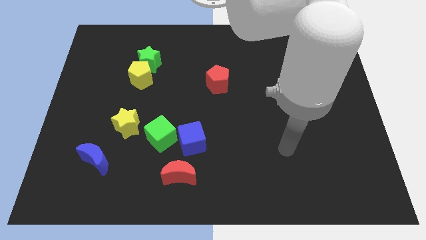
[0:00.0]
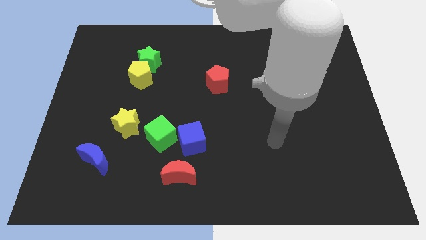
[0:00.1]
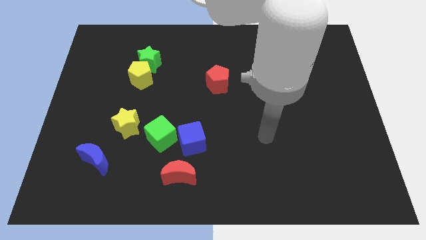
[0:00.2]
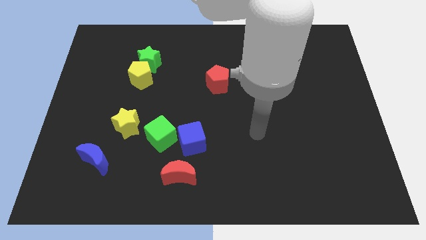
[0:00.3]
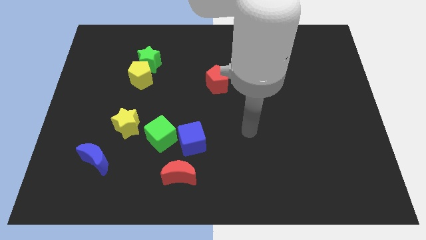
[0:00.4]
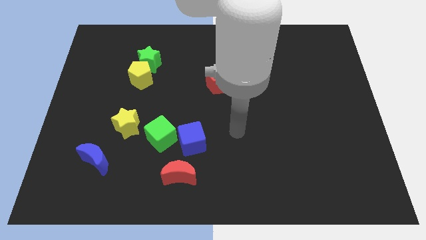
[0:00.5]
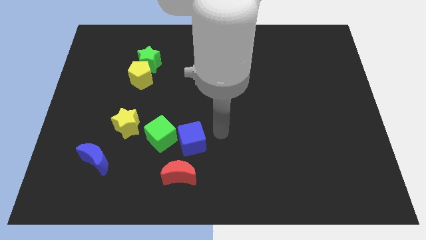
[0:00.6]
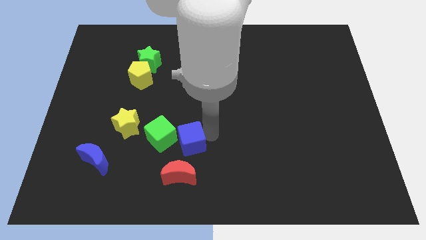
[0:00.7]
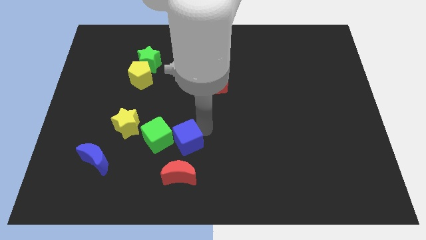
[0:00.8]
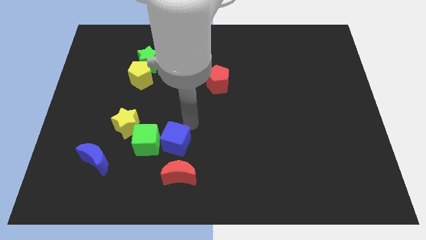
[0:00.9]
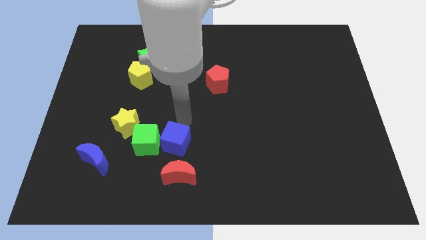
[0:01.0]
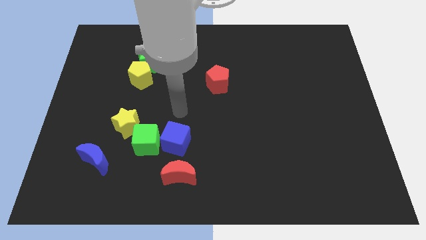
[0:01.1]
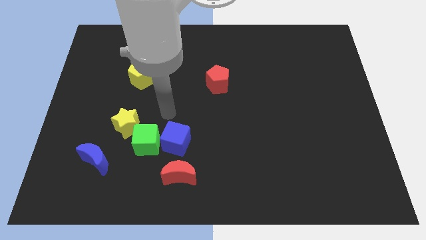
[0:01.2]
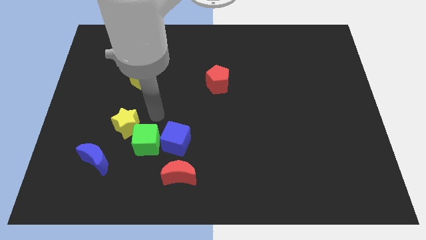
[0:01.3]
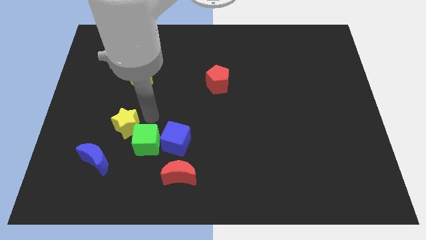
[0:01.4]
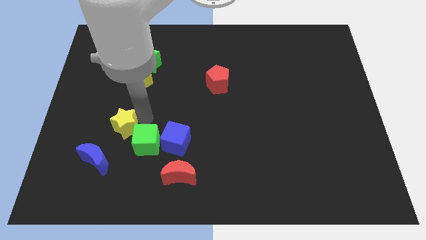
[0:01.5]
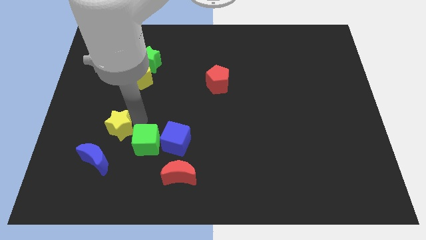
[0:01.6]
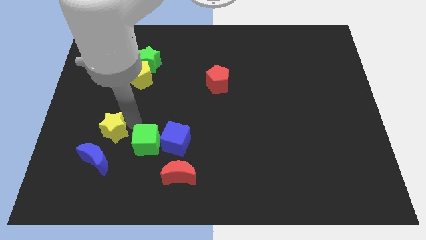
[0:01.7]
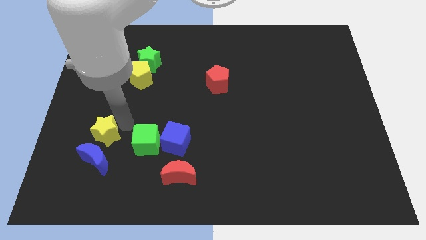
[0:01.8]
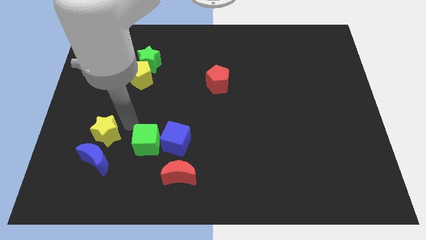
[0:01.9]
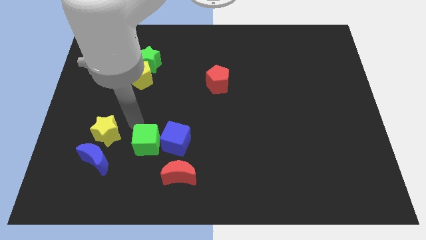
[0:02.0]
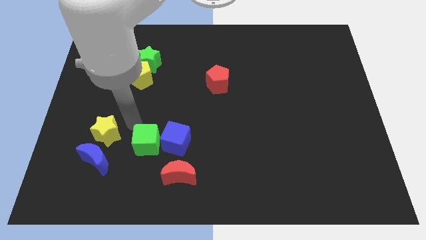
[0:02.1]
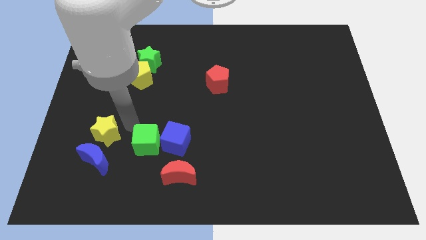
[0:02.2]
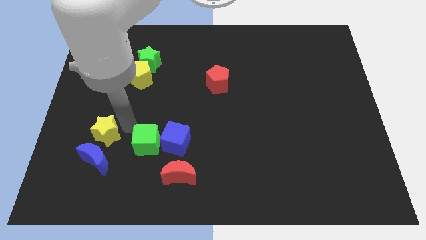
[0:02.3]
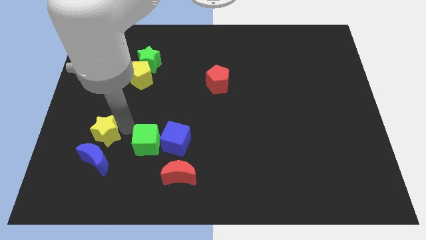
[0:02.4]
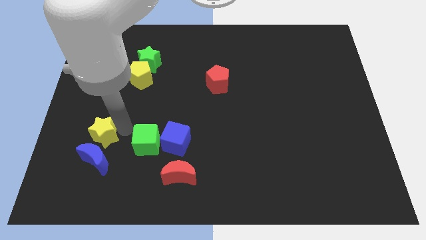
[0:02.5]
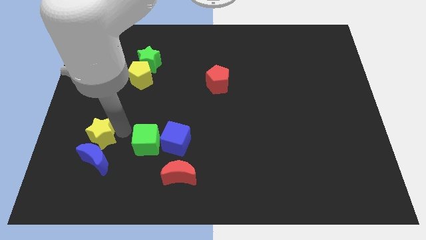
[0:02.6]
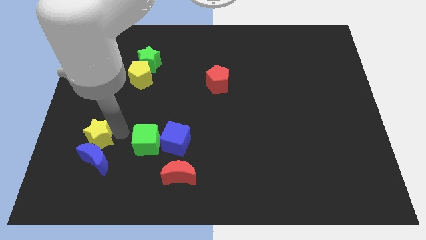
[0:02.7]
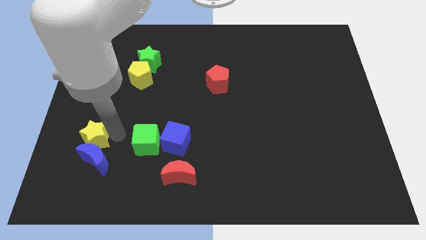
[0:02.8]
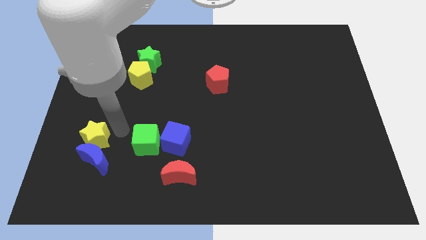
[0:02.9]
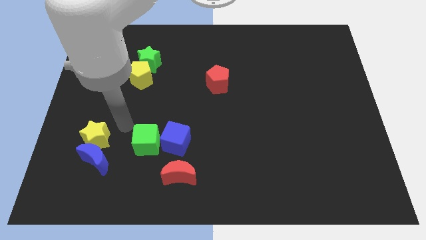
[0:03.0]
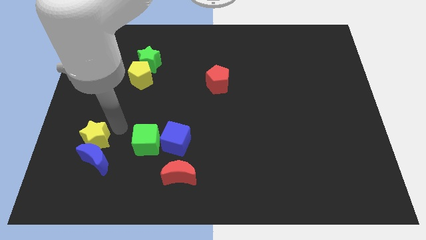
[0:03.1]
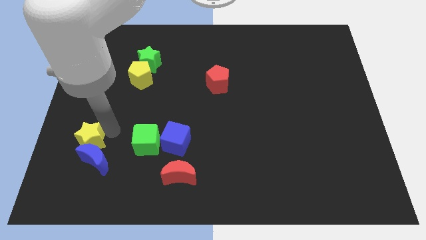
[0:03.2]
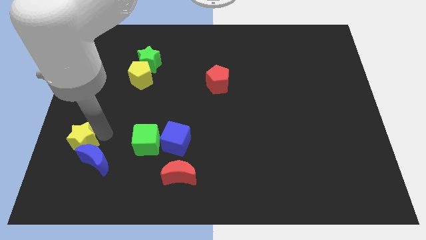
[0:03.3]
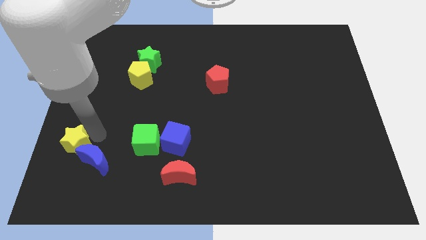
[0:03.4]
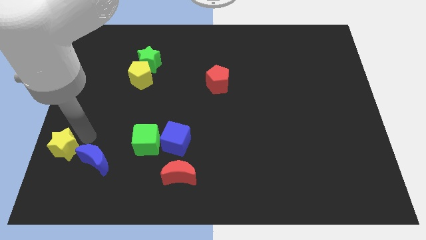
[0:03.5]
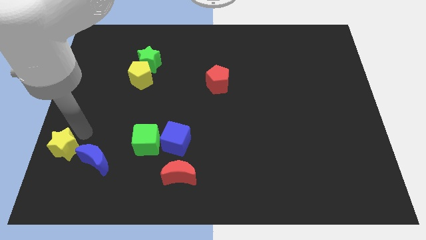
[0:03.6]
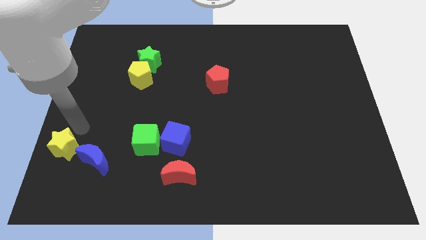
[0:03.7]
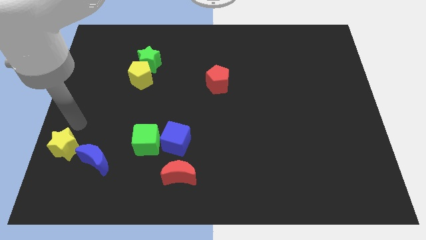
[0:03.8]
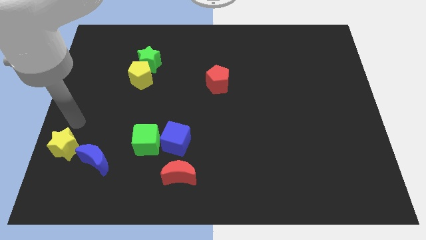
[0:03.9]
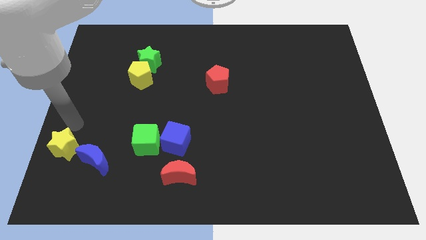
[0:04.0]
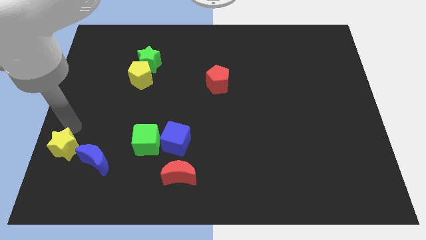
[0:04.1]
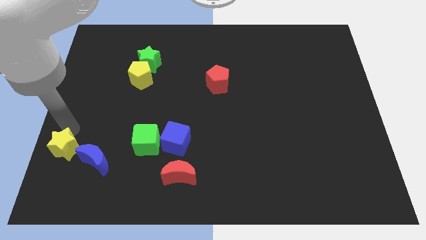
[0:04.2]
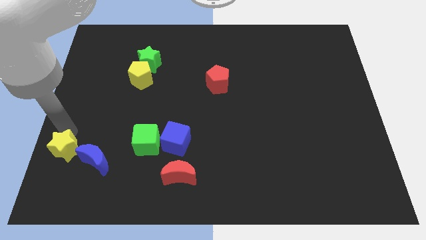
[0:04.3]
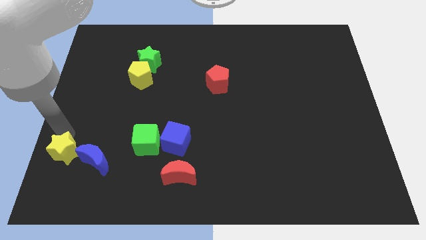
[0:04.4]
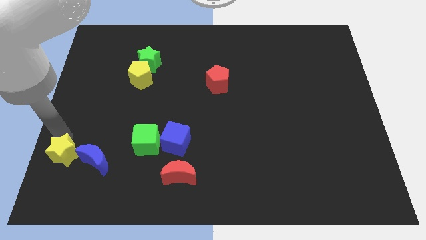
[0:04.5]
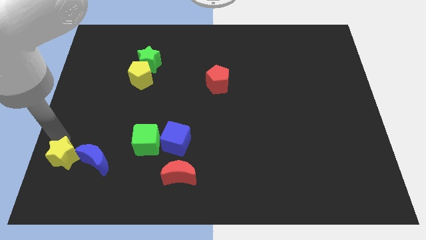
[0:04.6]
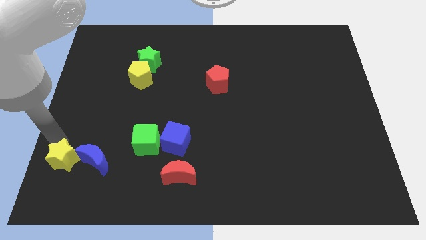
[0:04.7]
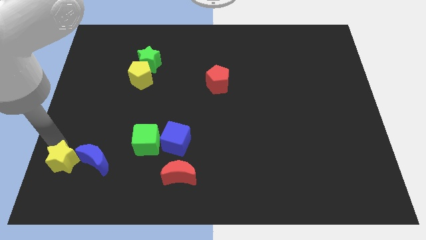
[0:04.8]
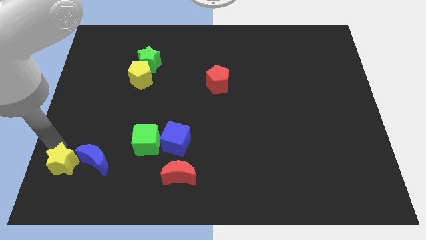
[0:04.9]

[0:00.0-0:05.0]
slide the yellow star to the bottom left of the board

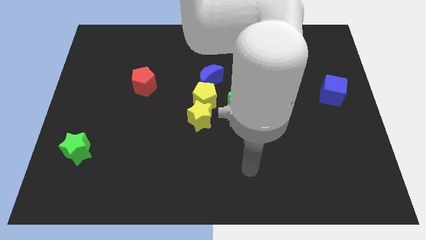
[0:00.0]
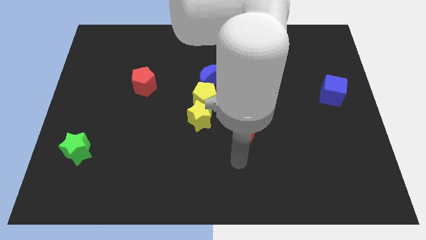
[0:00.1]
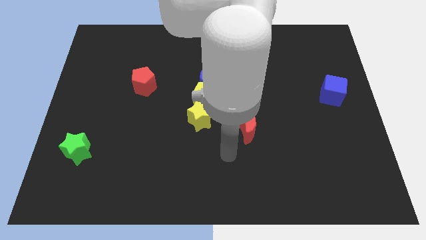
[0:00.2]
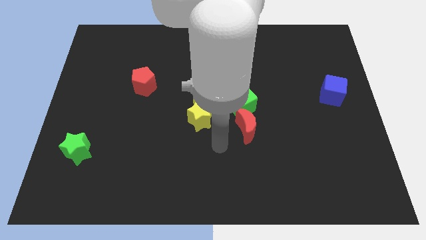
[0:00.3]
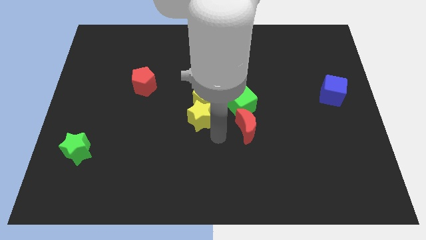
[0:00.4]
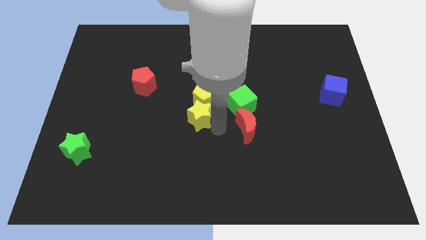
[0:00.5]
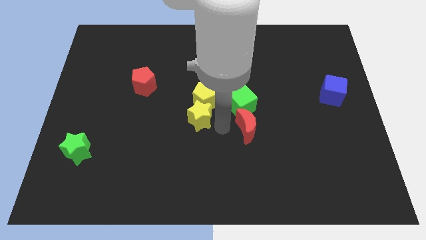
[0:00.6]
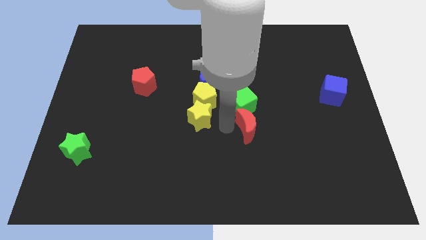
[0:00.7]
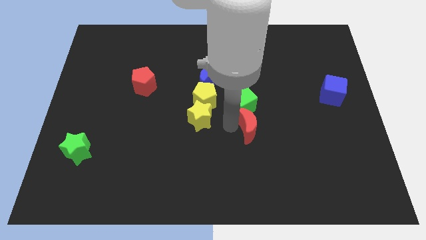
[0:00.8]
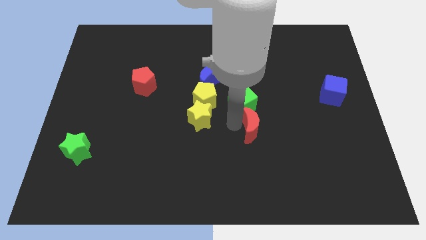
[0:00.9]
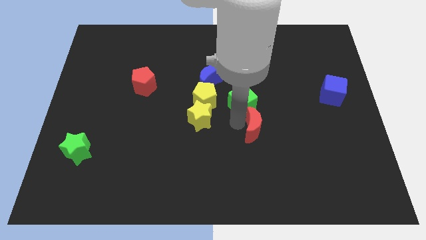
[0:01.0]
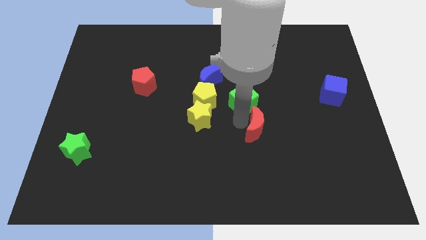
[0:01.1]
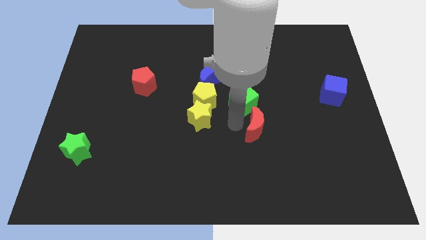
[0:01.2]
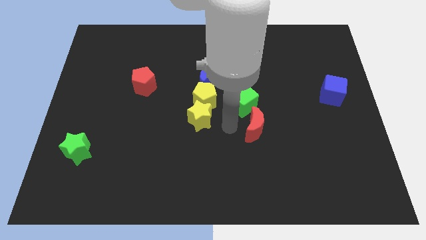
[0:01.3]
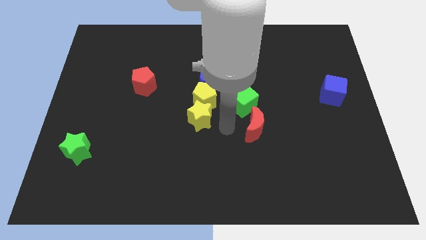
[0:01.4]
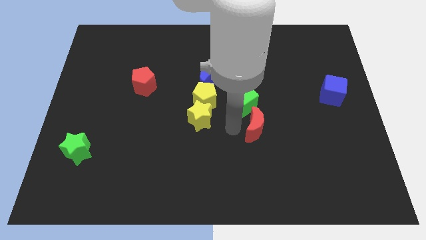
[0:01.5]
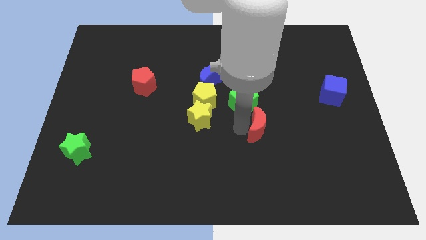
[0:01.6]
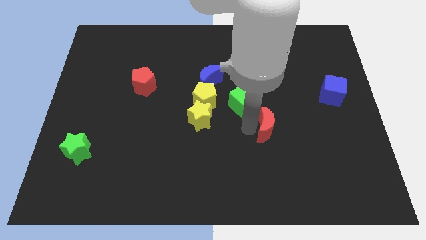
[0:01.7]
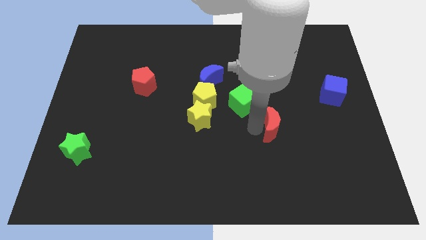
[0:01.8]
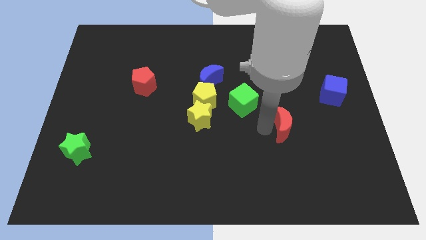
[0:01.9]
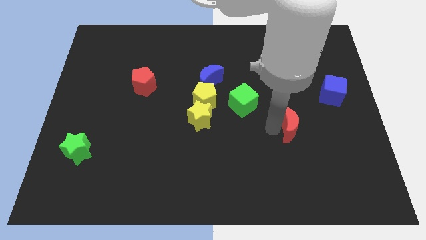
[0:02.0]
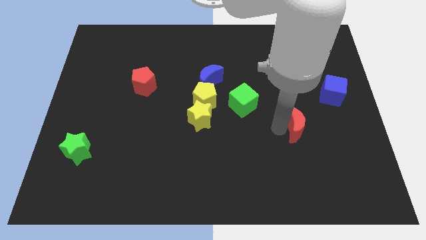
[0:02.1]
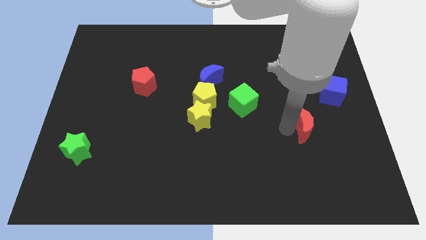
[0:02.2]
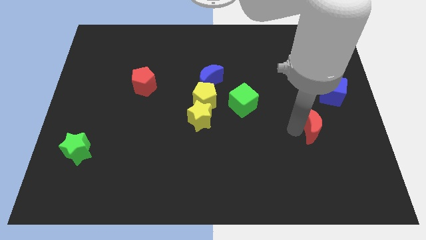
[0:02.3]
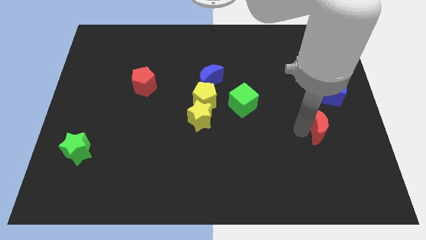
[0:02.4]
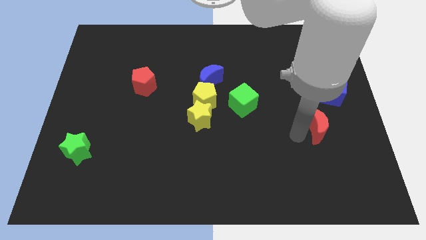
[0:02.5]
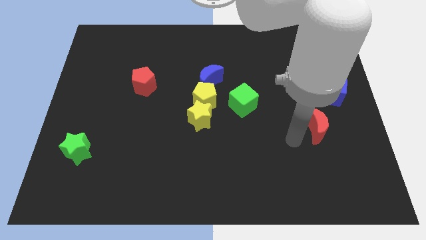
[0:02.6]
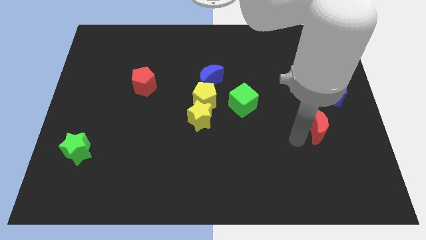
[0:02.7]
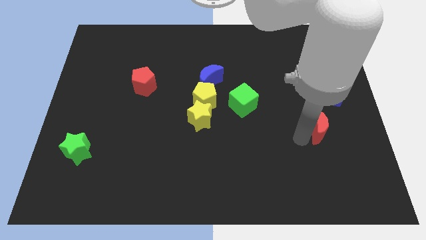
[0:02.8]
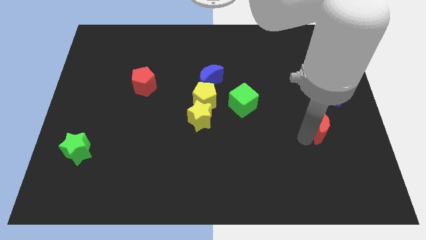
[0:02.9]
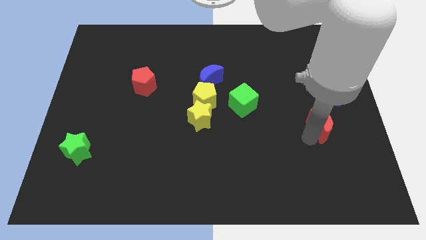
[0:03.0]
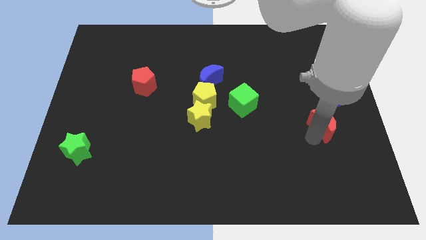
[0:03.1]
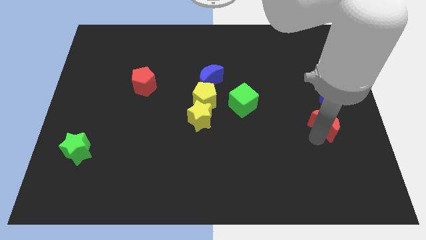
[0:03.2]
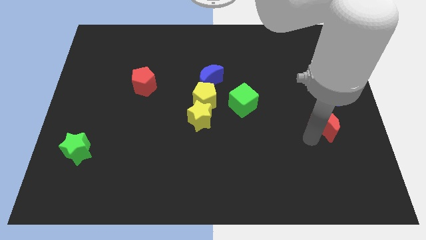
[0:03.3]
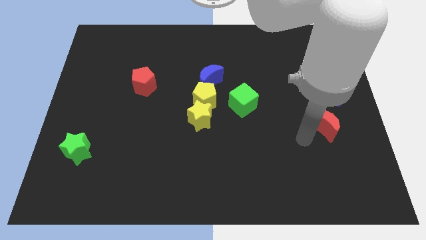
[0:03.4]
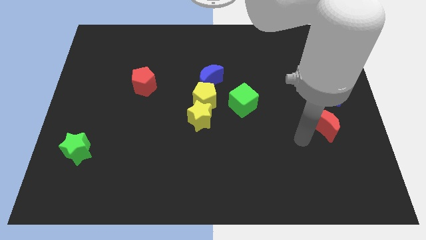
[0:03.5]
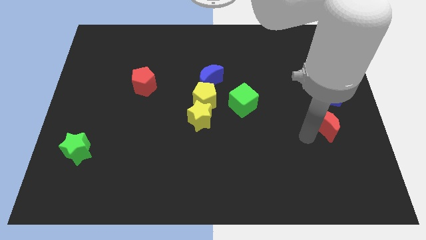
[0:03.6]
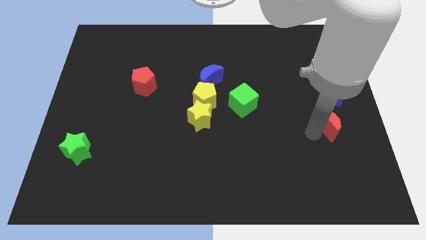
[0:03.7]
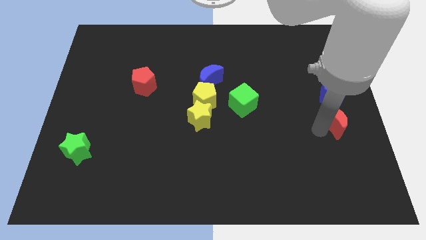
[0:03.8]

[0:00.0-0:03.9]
slide the red moon to the right side
